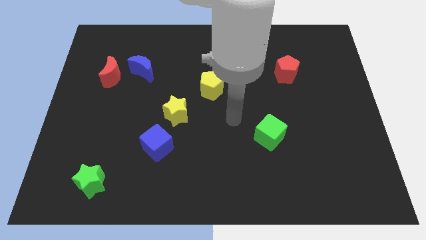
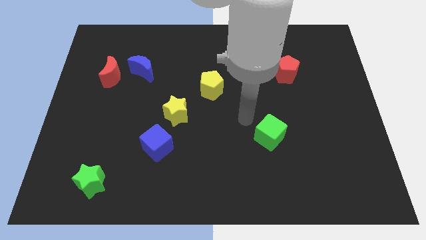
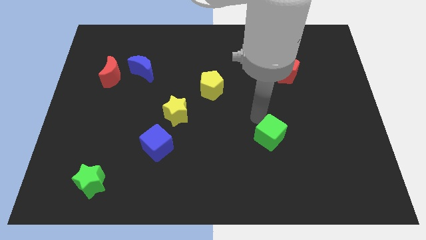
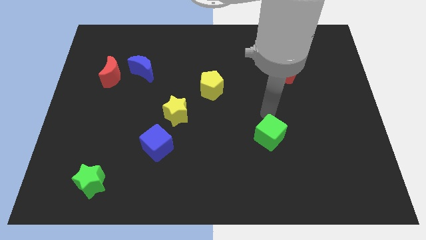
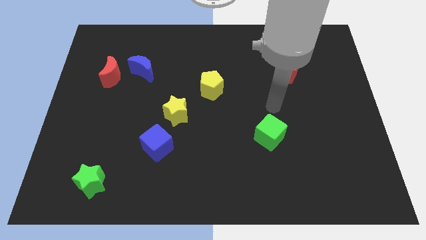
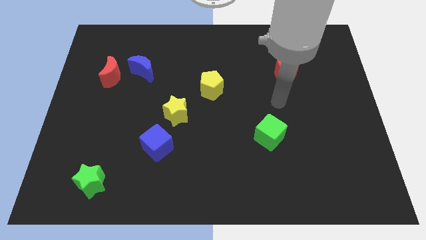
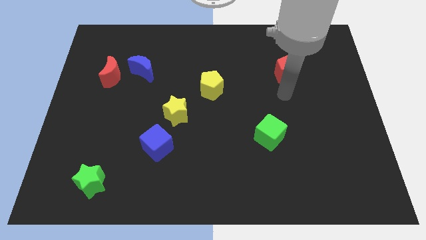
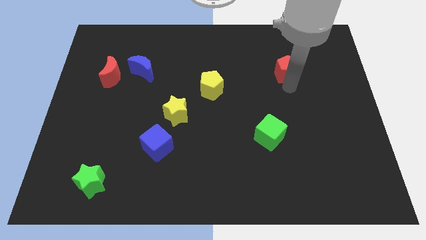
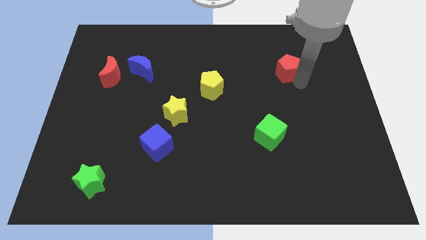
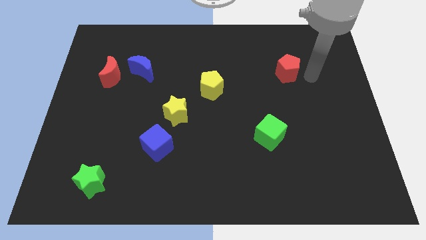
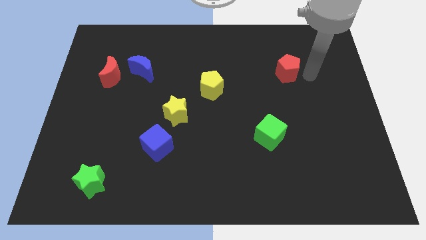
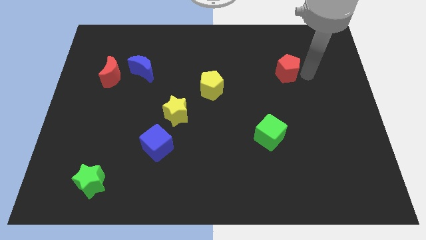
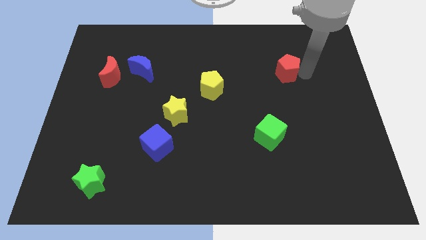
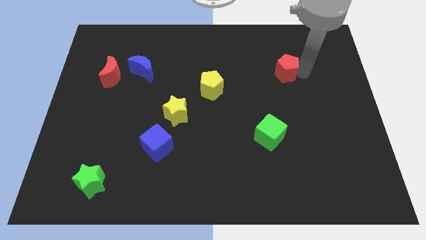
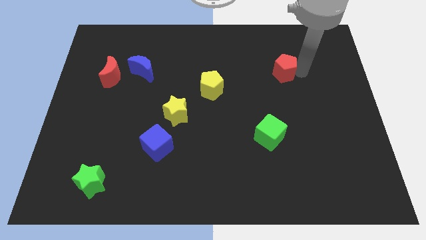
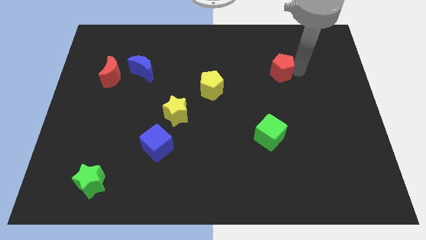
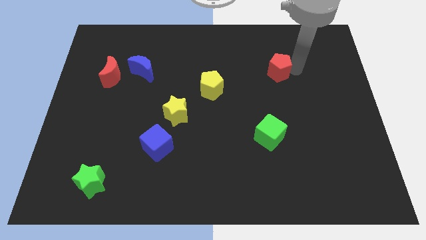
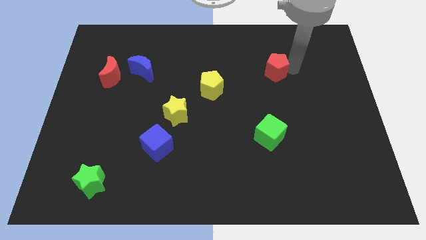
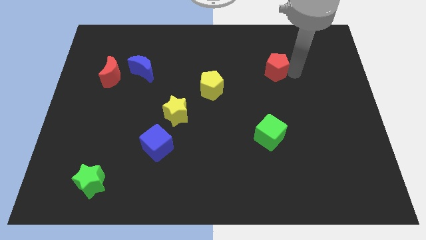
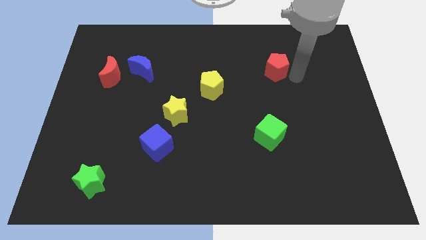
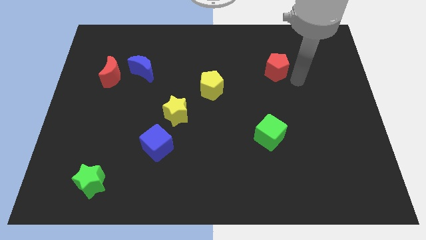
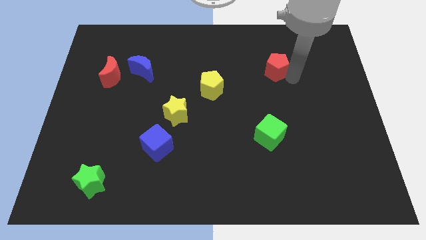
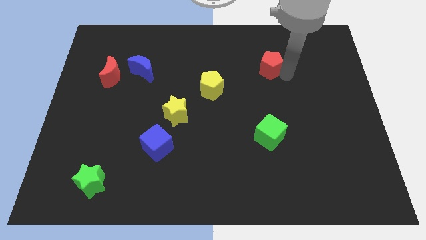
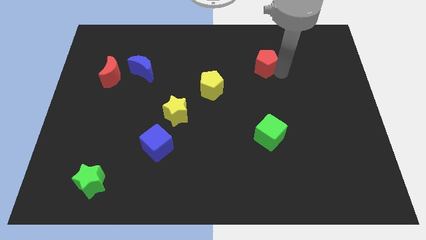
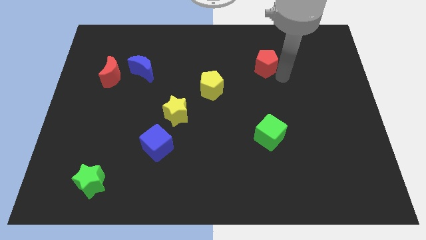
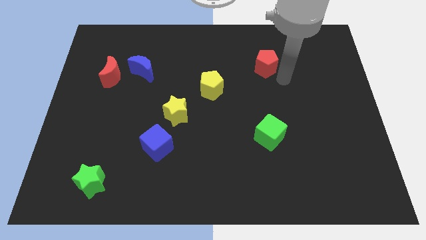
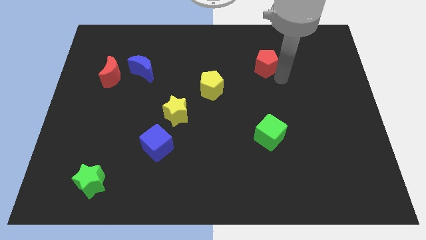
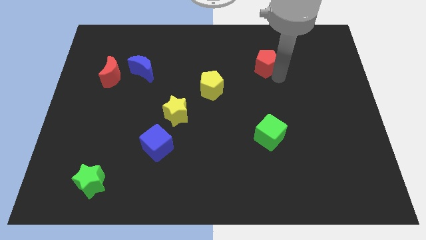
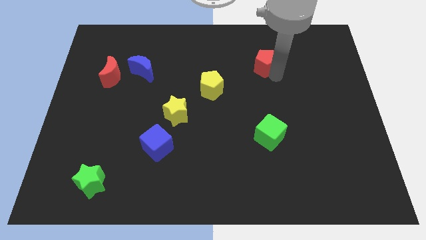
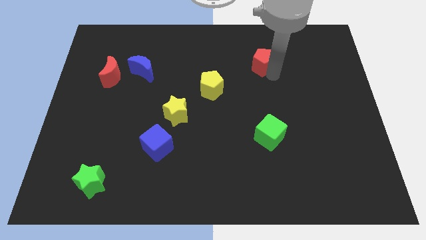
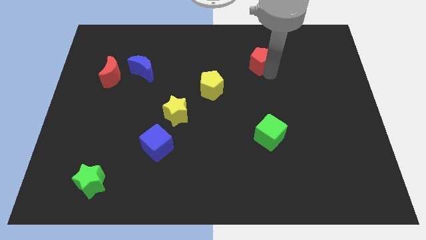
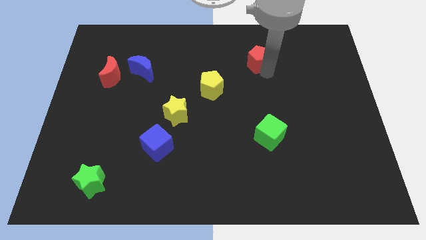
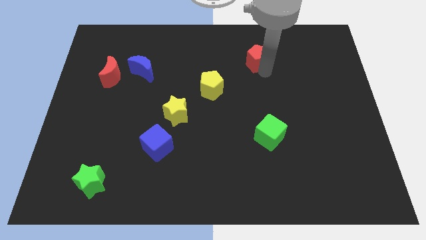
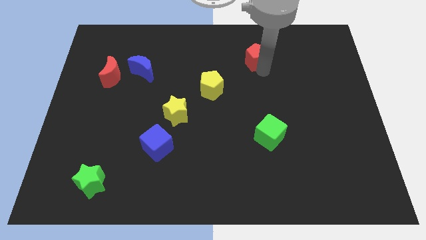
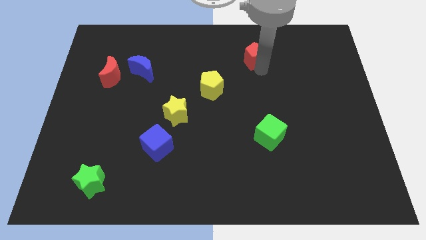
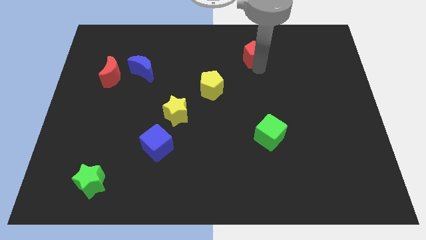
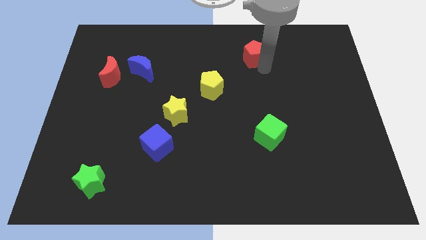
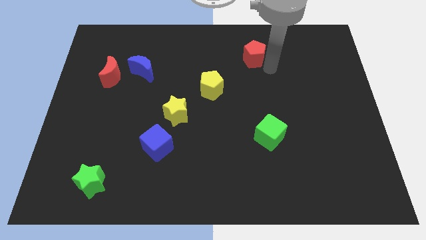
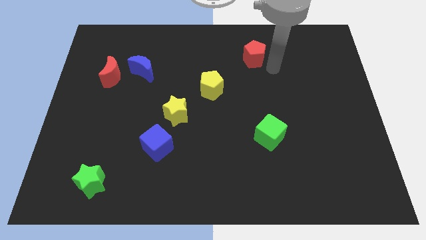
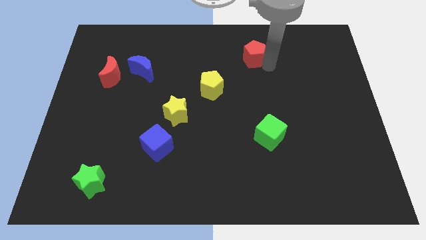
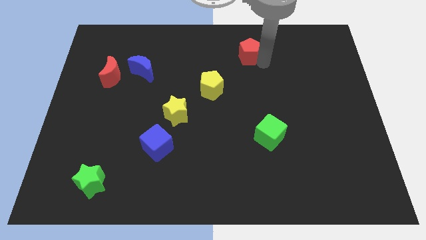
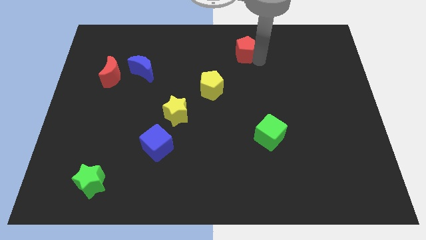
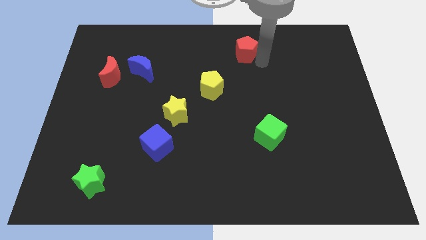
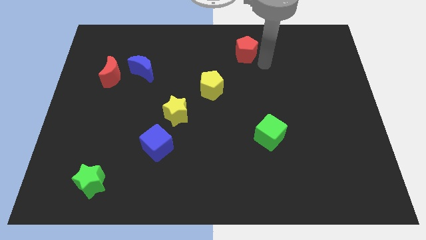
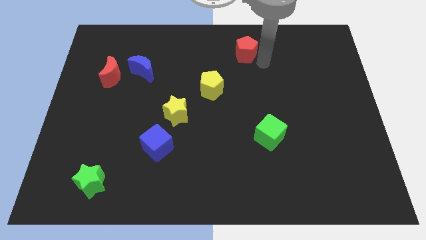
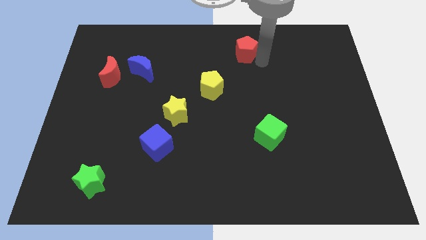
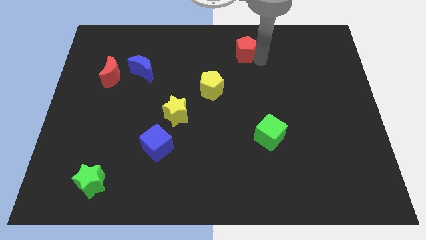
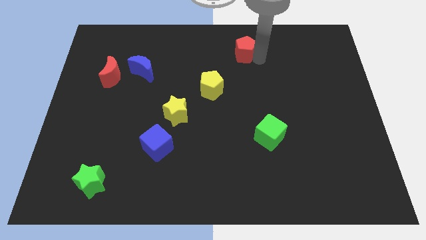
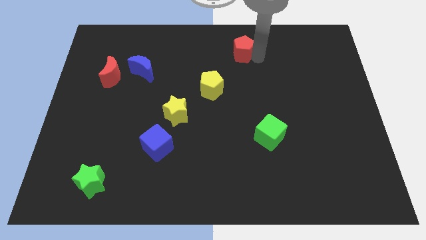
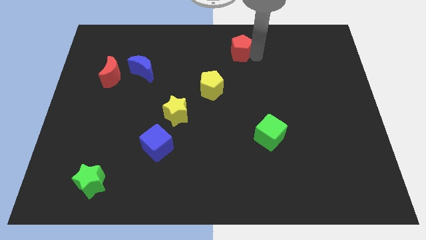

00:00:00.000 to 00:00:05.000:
put the red pentagon to the top side

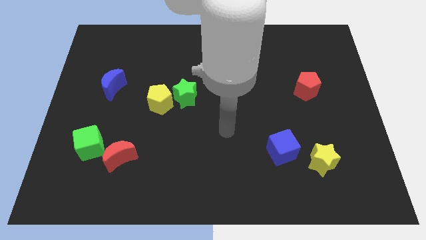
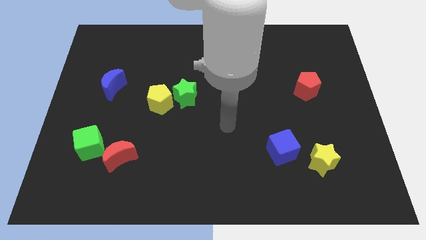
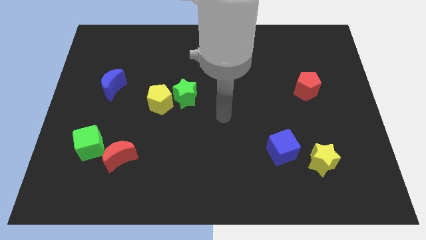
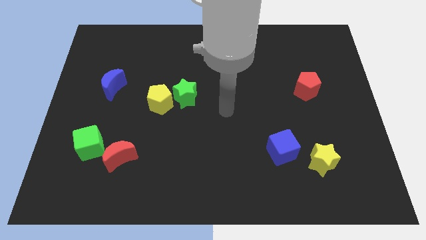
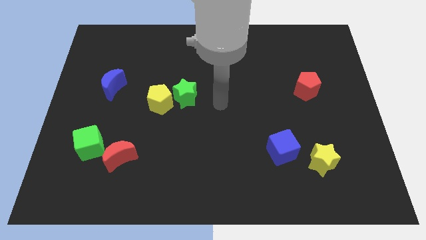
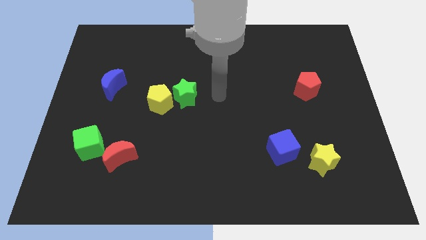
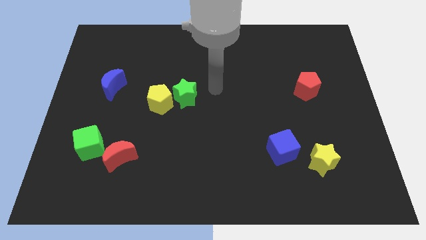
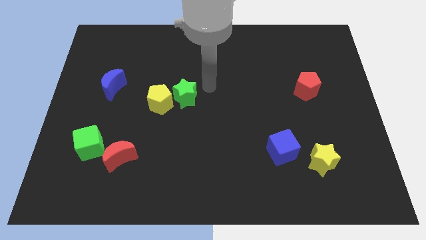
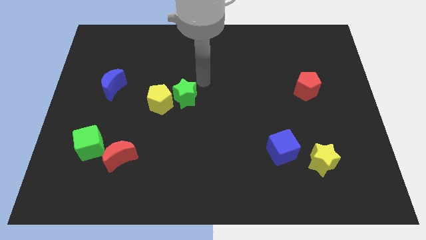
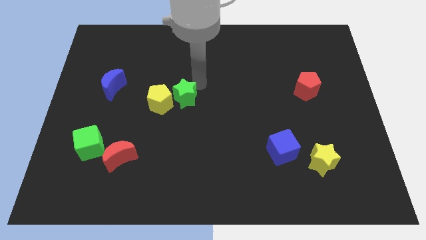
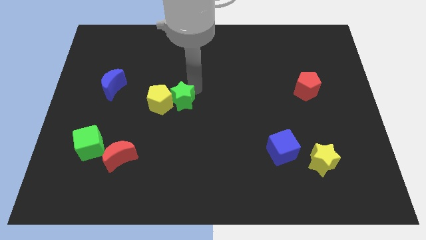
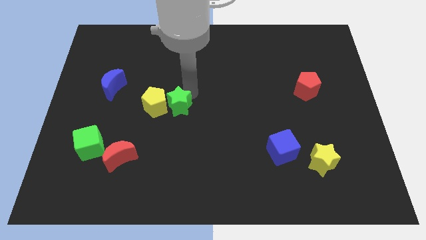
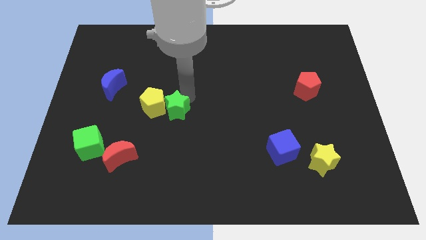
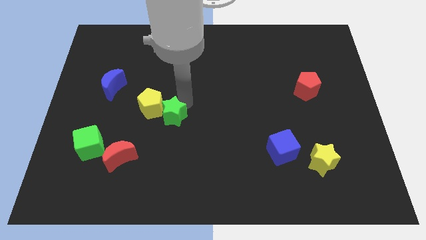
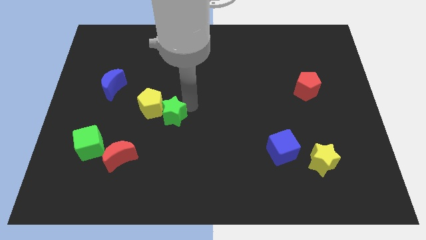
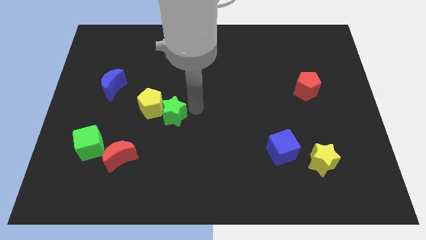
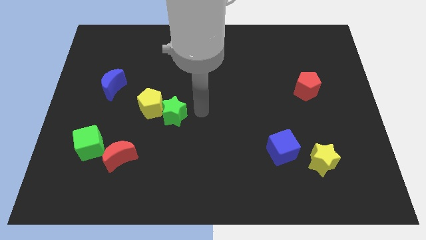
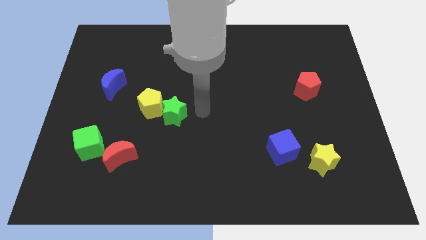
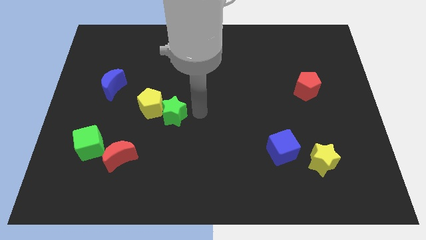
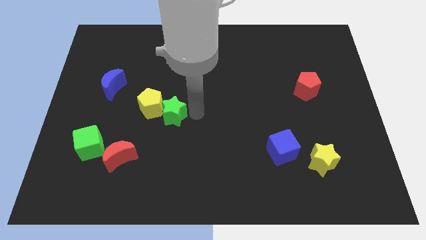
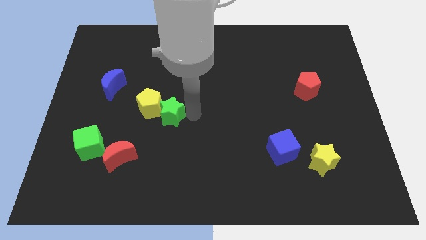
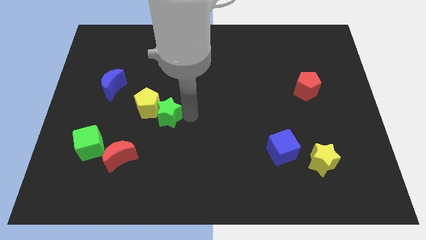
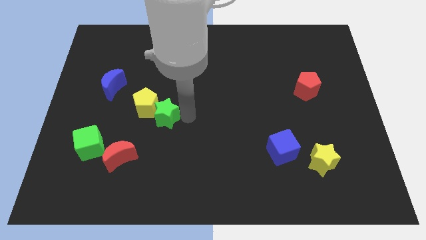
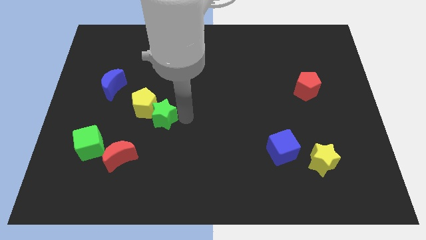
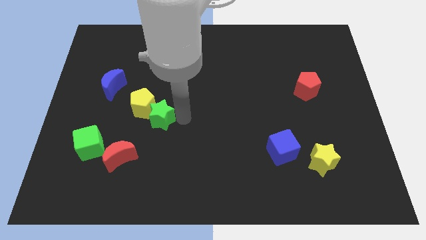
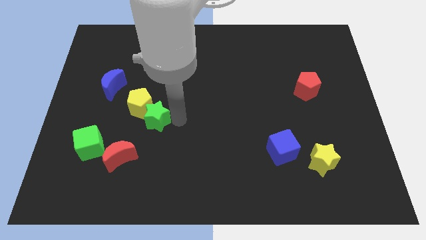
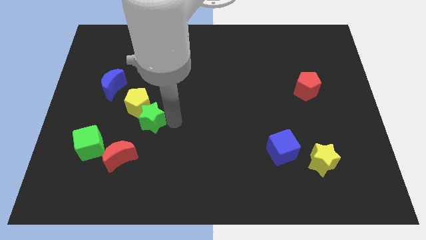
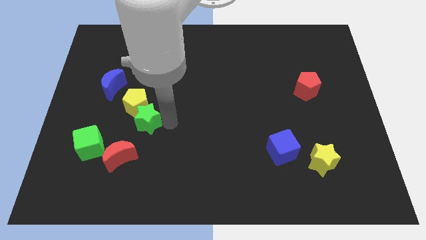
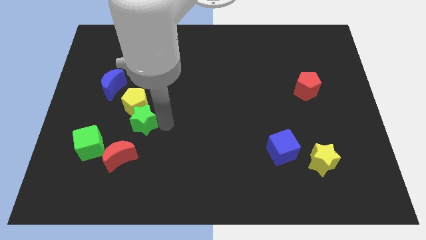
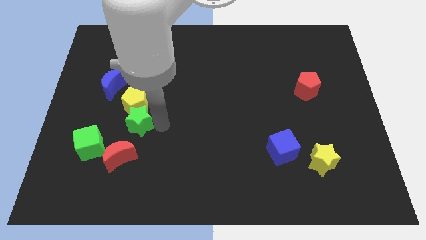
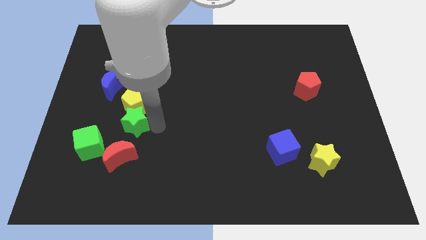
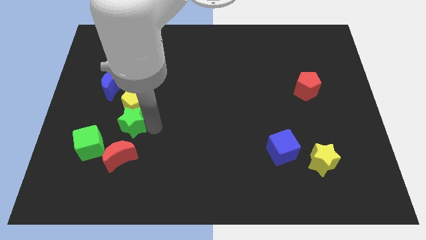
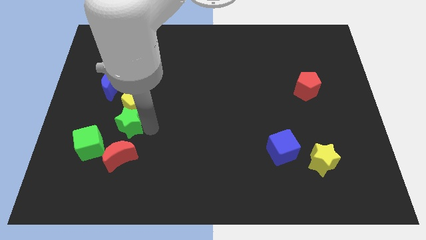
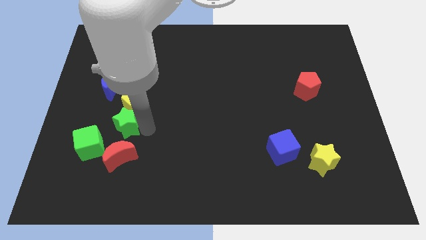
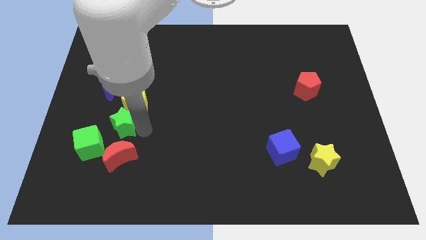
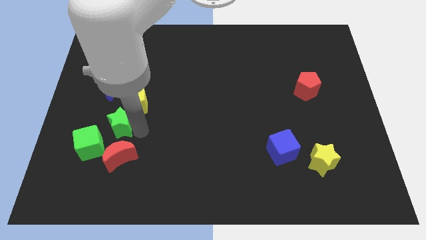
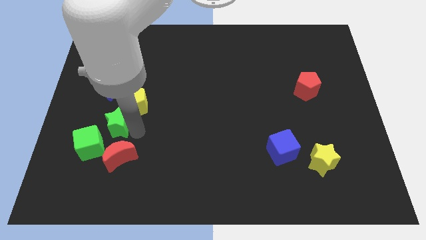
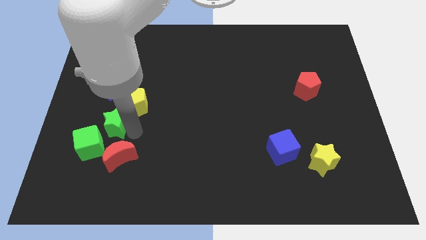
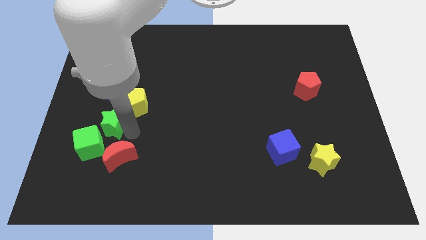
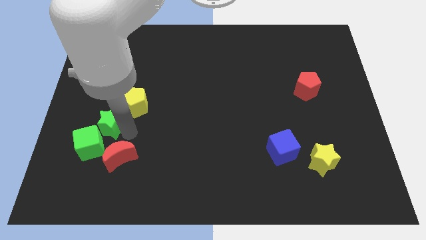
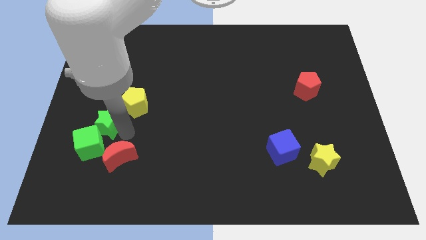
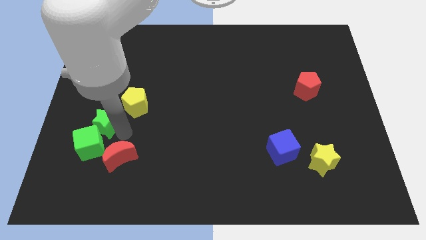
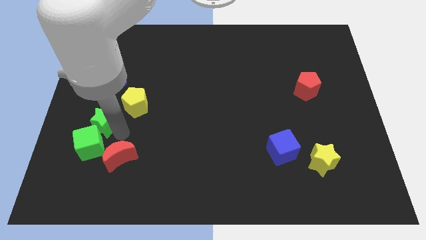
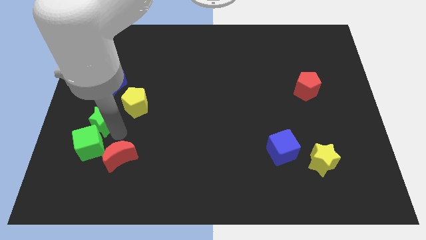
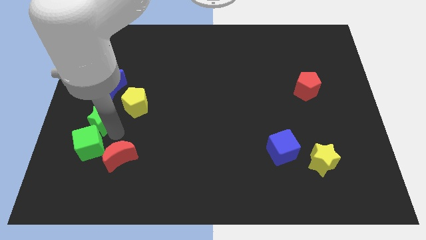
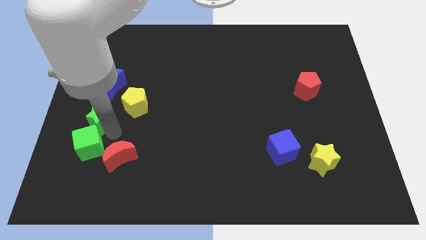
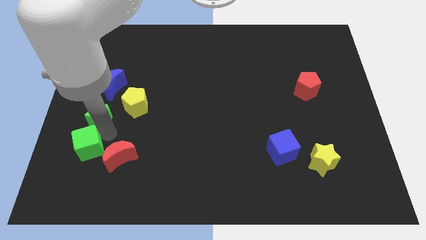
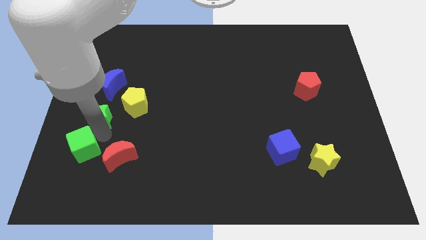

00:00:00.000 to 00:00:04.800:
push the green star to the left side
